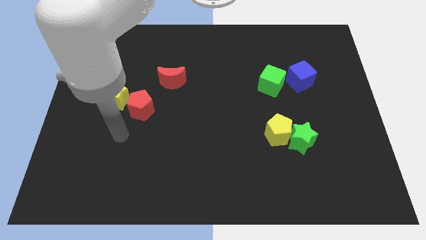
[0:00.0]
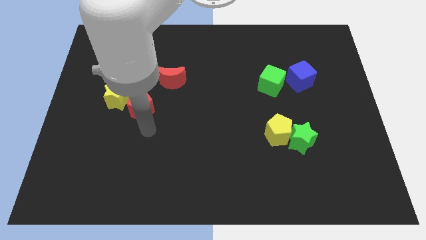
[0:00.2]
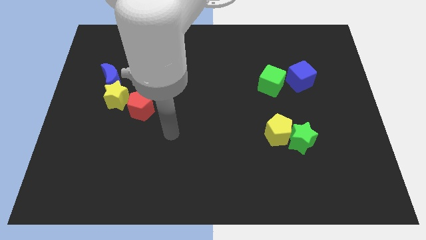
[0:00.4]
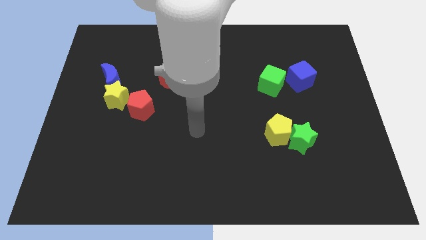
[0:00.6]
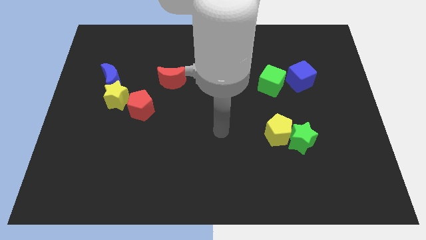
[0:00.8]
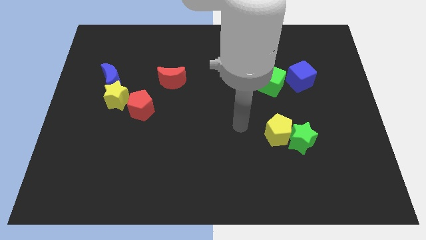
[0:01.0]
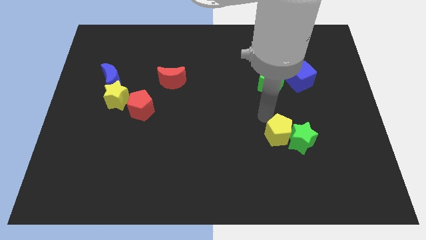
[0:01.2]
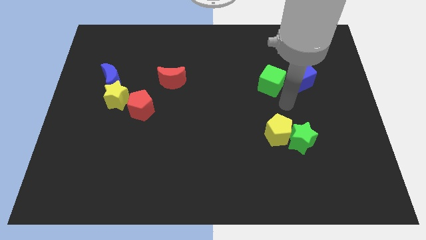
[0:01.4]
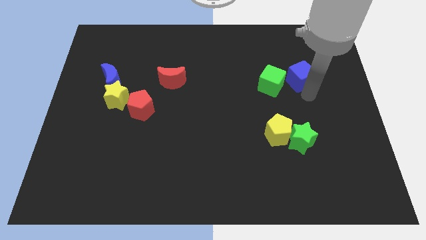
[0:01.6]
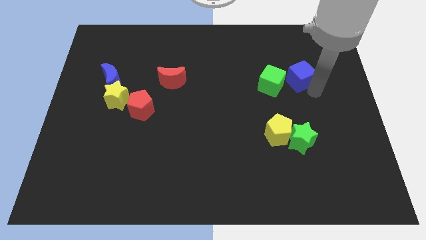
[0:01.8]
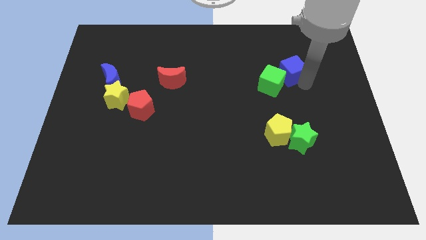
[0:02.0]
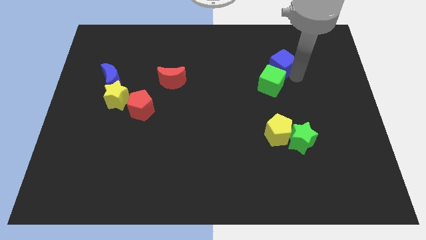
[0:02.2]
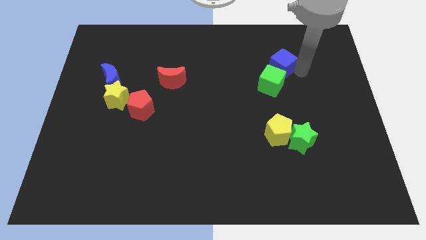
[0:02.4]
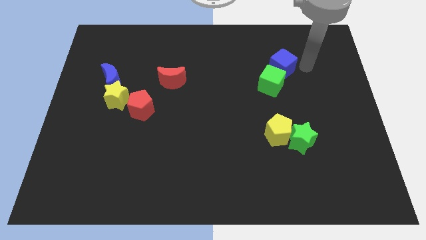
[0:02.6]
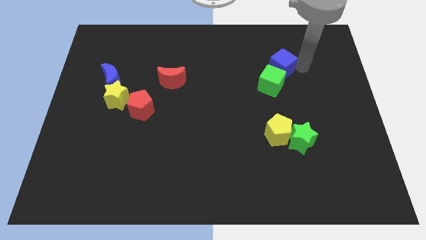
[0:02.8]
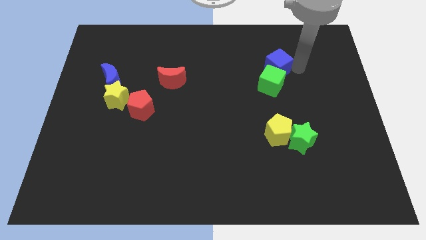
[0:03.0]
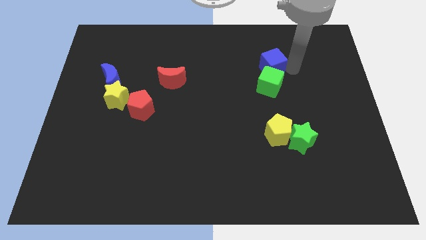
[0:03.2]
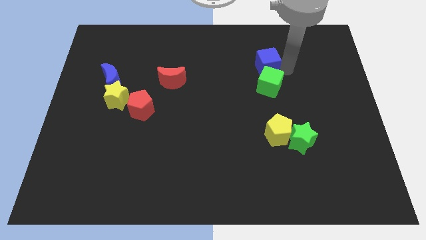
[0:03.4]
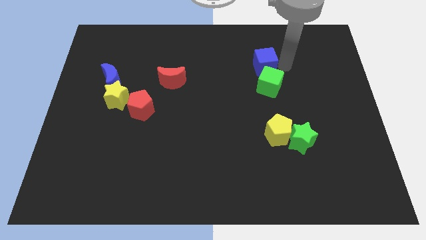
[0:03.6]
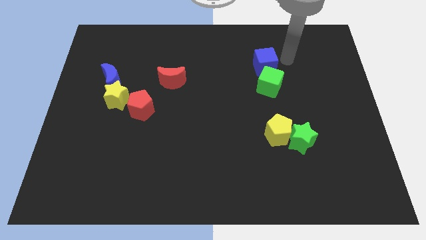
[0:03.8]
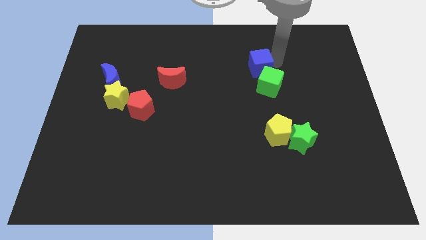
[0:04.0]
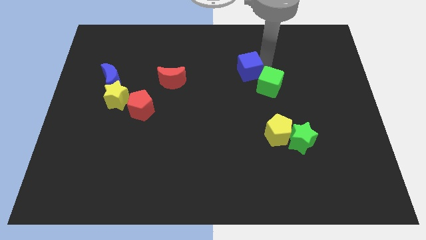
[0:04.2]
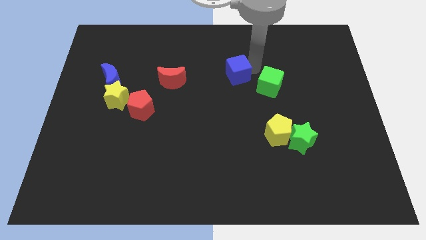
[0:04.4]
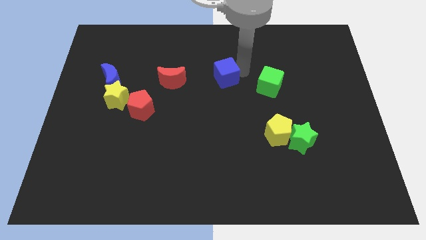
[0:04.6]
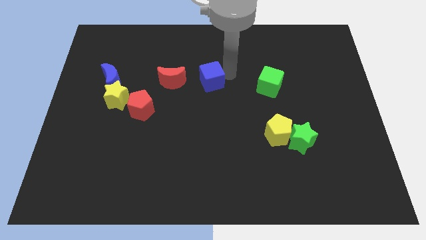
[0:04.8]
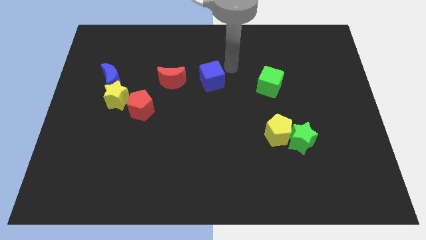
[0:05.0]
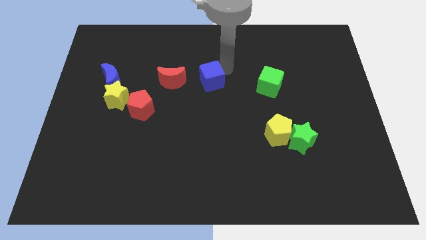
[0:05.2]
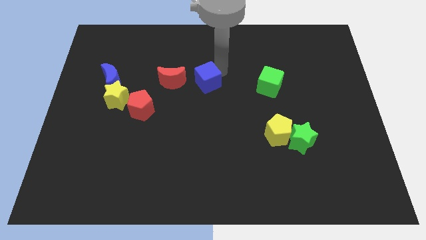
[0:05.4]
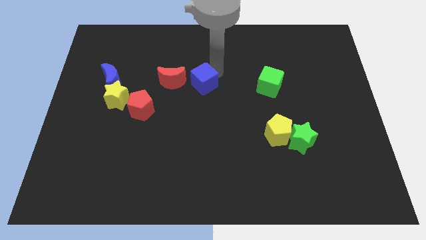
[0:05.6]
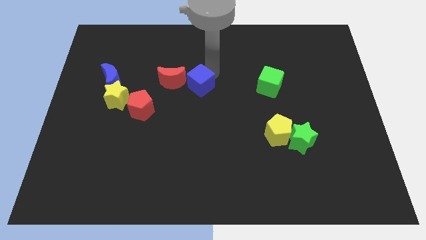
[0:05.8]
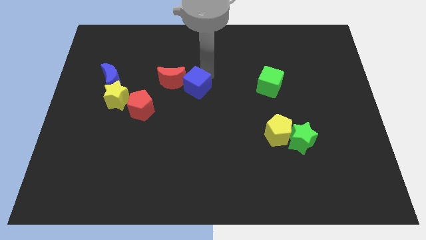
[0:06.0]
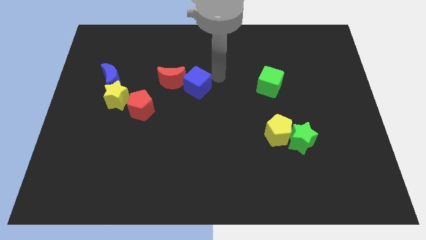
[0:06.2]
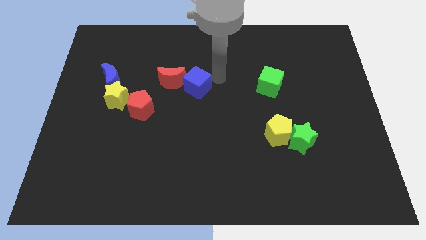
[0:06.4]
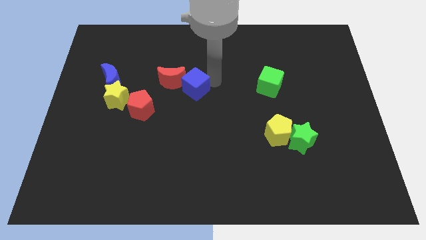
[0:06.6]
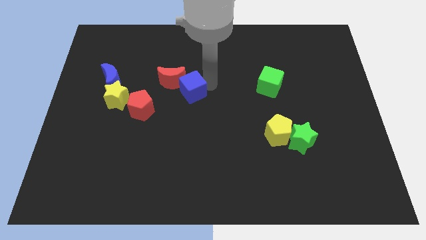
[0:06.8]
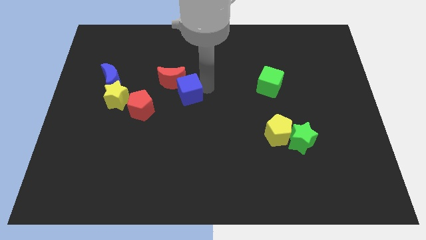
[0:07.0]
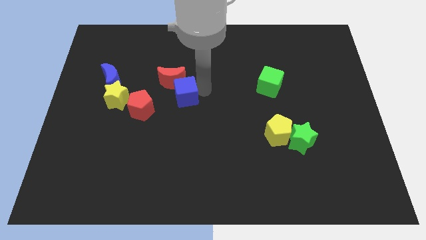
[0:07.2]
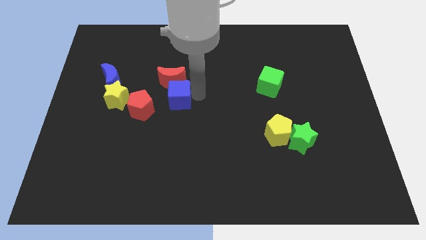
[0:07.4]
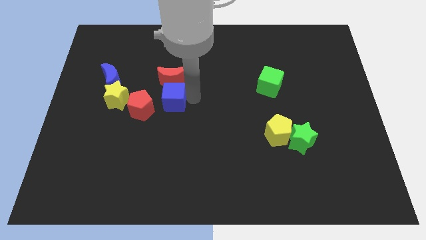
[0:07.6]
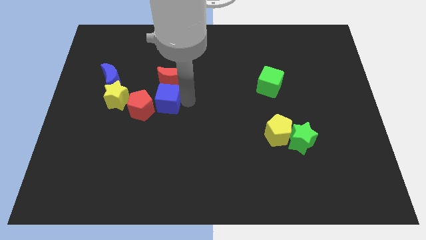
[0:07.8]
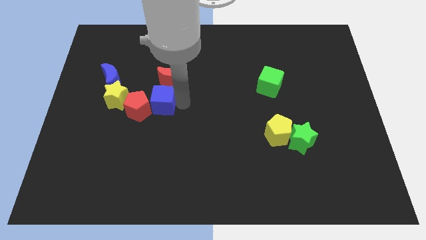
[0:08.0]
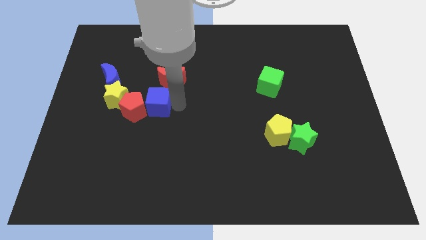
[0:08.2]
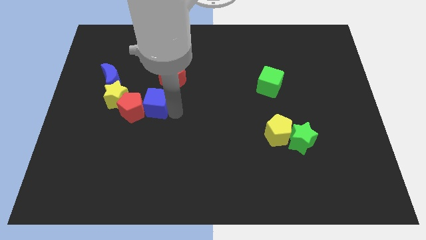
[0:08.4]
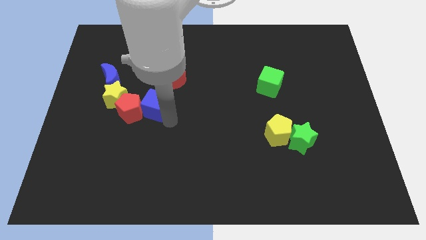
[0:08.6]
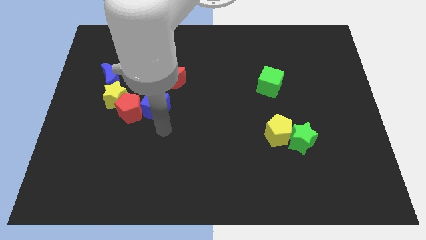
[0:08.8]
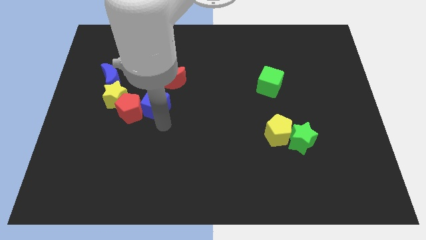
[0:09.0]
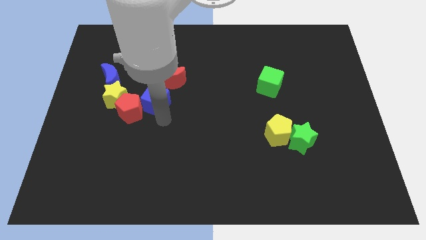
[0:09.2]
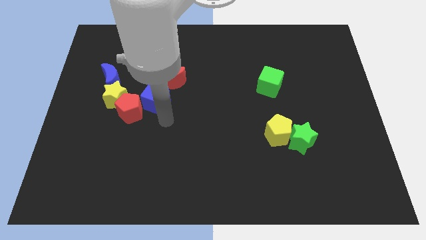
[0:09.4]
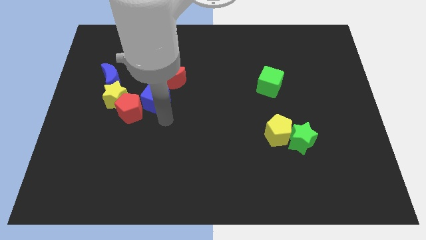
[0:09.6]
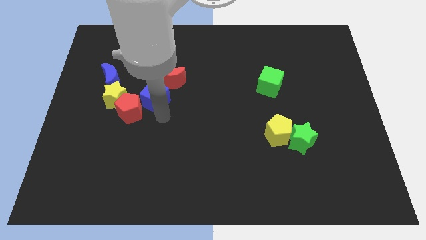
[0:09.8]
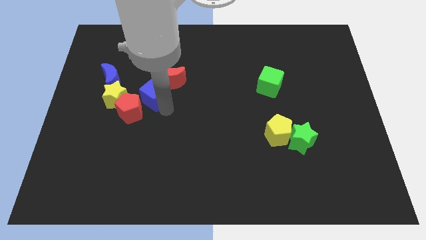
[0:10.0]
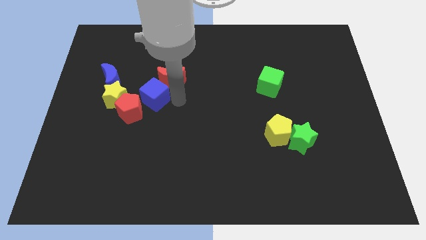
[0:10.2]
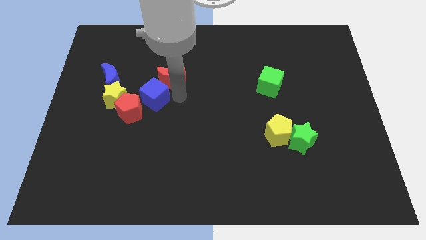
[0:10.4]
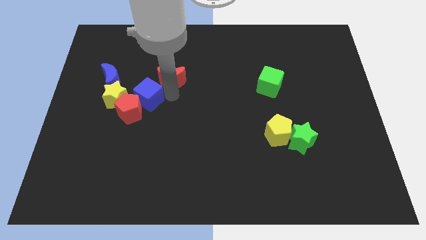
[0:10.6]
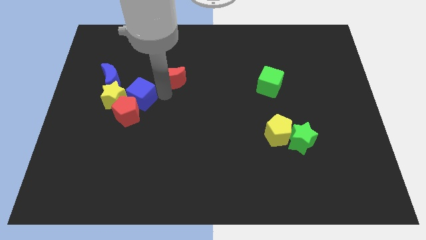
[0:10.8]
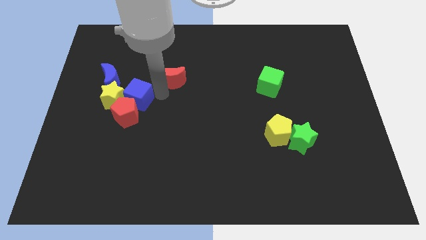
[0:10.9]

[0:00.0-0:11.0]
move the blue cube towards the yellow star

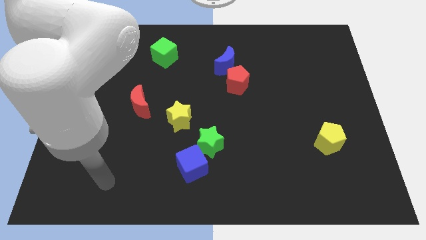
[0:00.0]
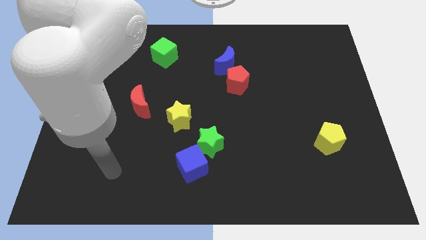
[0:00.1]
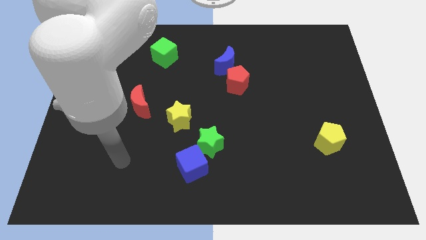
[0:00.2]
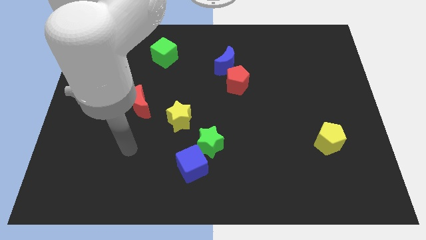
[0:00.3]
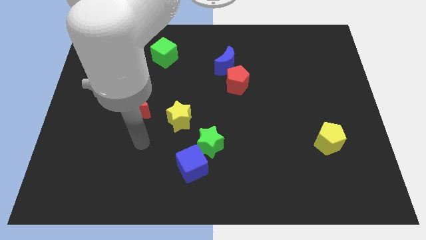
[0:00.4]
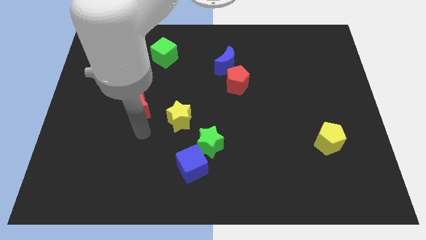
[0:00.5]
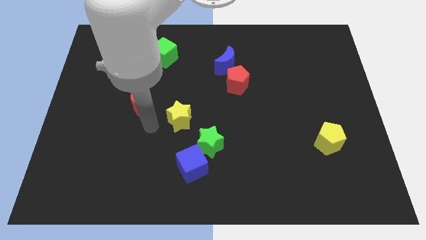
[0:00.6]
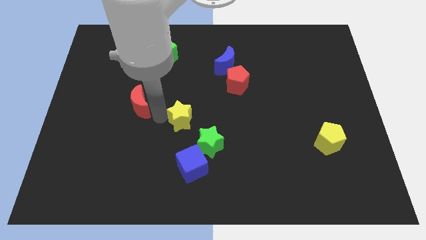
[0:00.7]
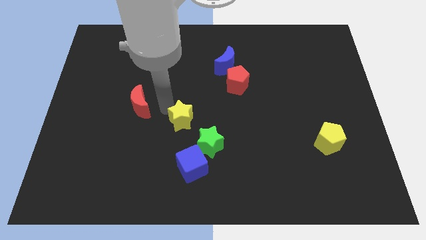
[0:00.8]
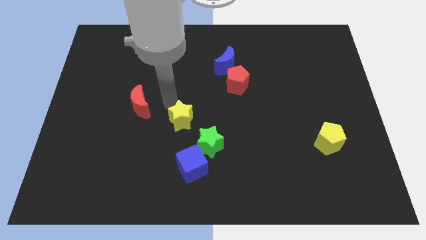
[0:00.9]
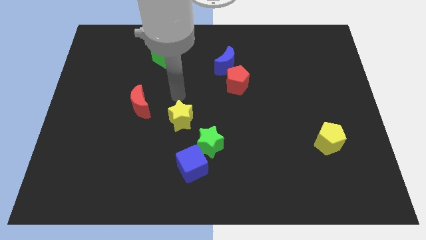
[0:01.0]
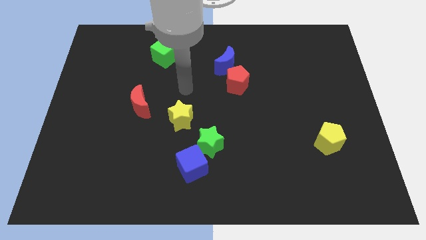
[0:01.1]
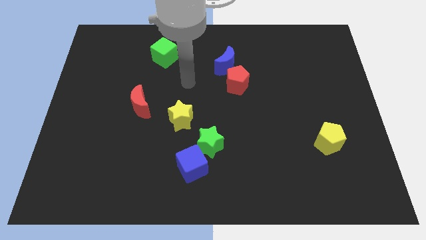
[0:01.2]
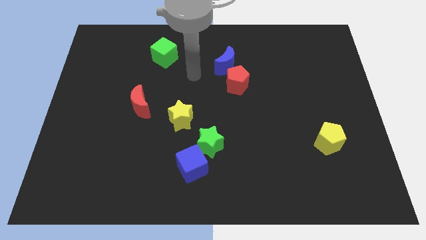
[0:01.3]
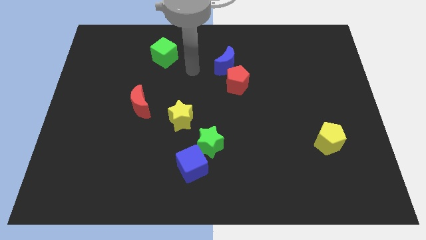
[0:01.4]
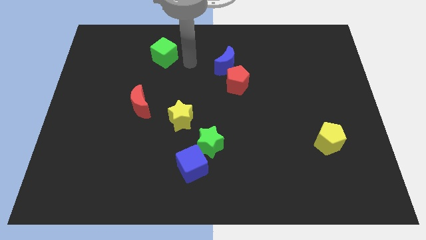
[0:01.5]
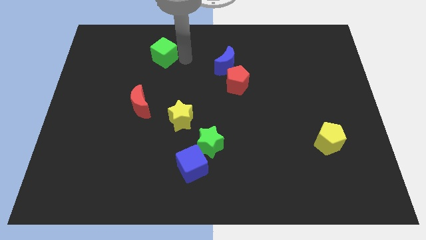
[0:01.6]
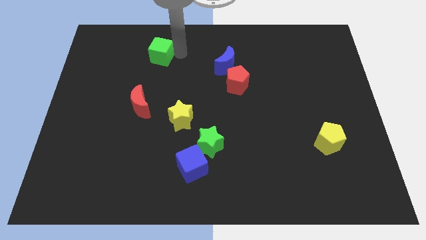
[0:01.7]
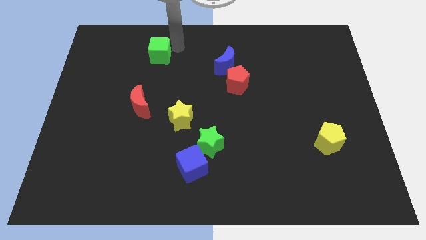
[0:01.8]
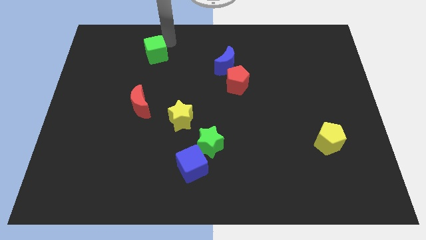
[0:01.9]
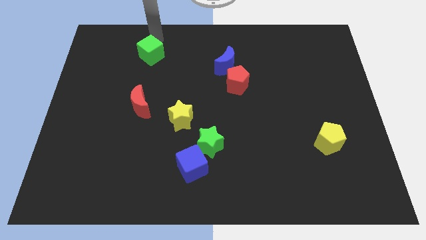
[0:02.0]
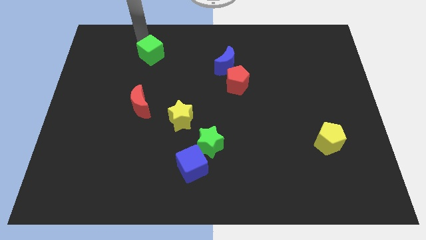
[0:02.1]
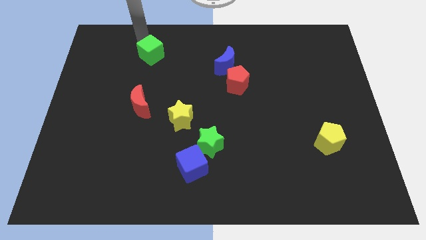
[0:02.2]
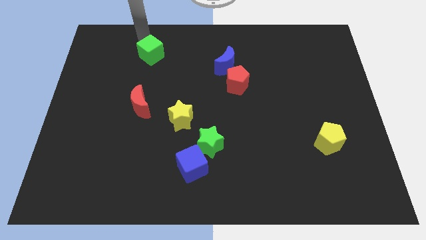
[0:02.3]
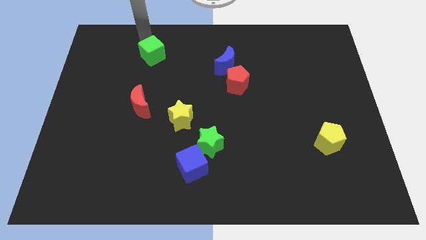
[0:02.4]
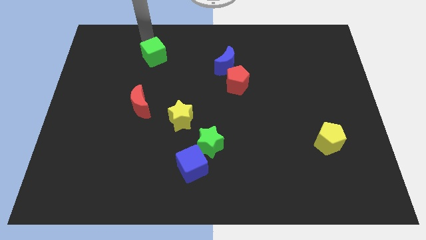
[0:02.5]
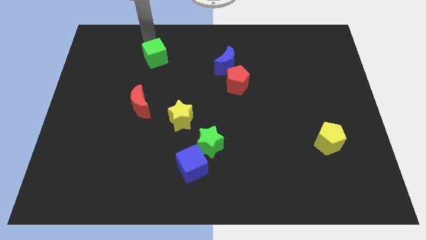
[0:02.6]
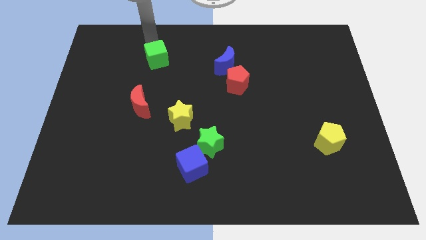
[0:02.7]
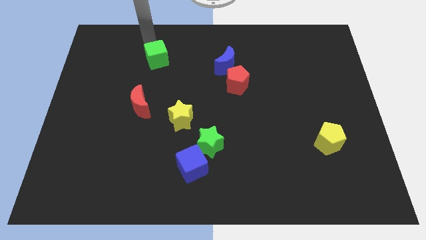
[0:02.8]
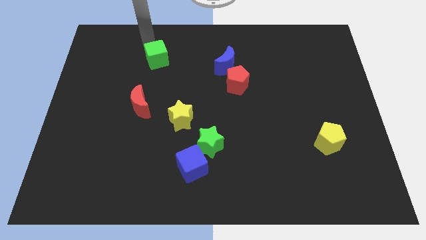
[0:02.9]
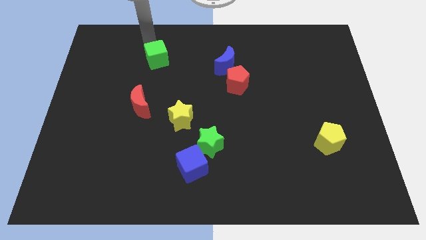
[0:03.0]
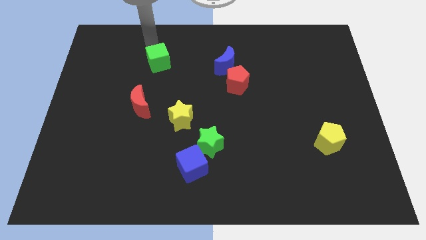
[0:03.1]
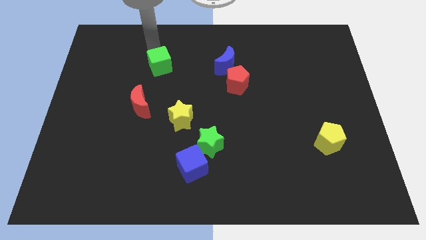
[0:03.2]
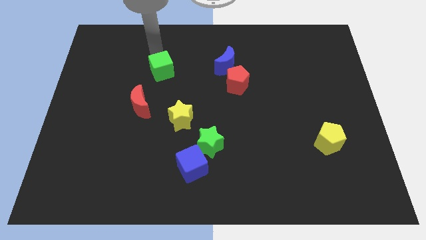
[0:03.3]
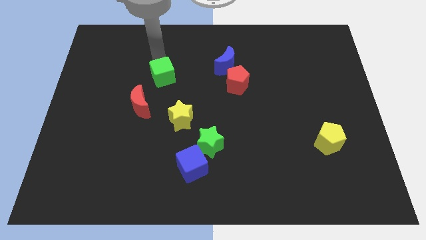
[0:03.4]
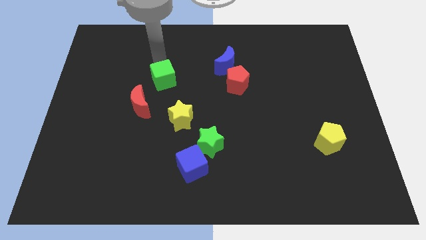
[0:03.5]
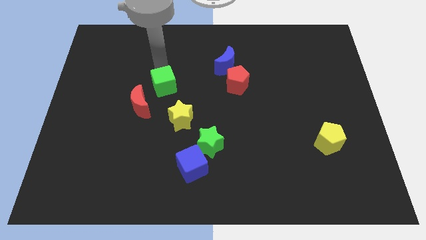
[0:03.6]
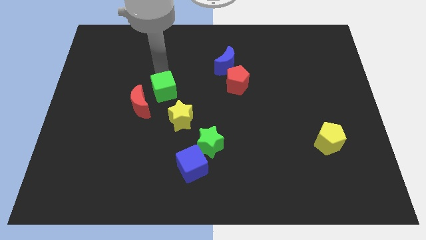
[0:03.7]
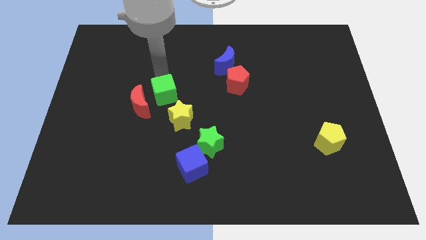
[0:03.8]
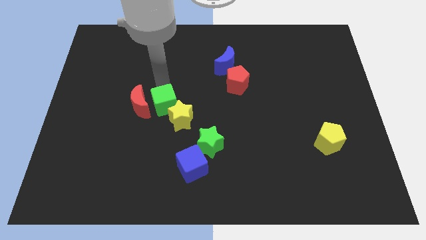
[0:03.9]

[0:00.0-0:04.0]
slide the green cube next to the yellow star
